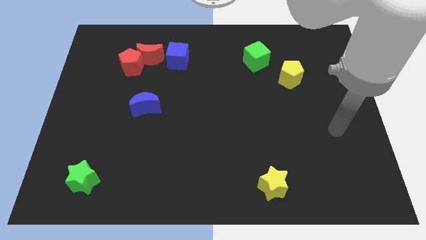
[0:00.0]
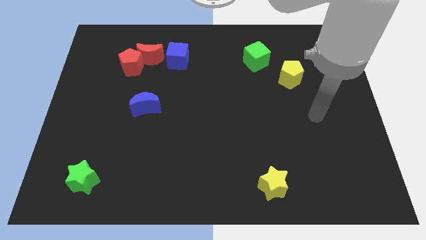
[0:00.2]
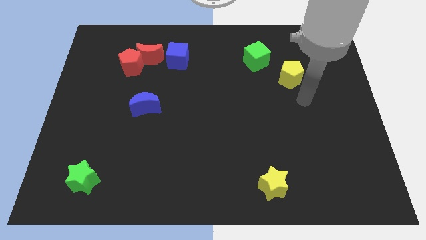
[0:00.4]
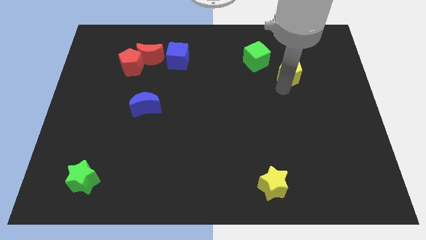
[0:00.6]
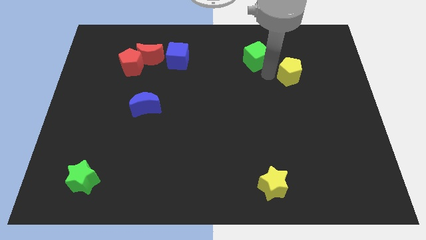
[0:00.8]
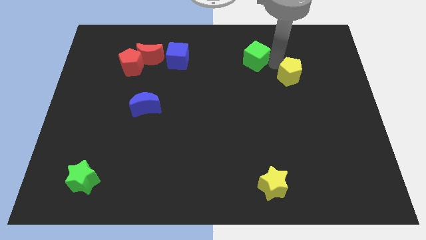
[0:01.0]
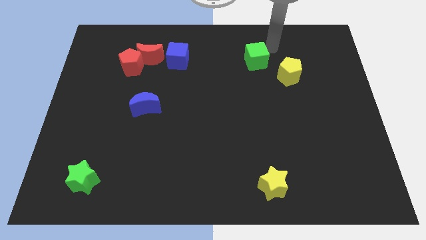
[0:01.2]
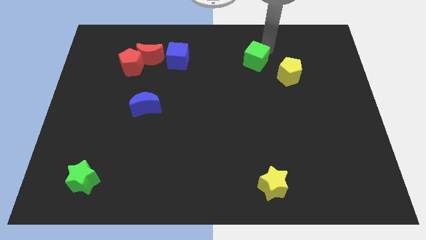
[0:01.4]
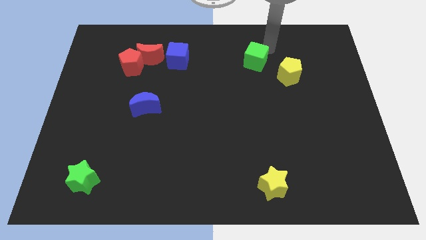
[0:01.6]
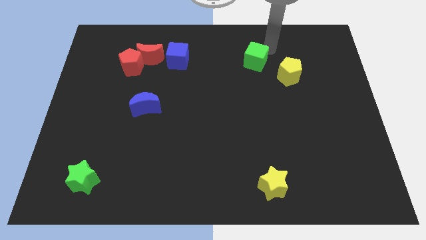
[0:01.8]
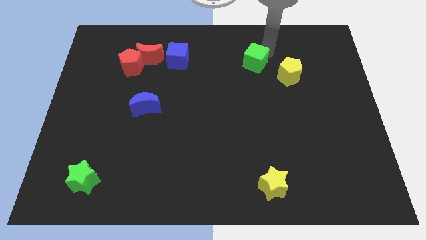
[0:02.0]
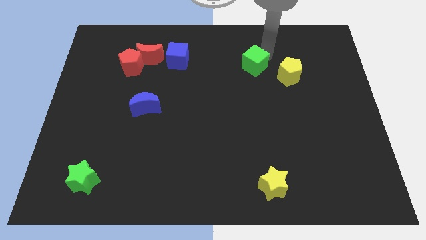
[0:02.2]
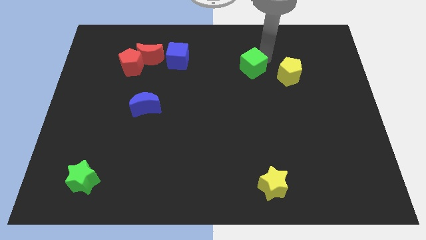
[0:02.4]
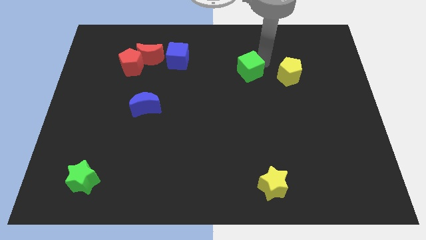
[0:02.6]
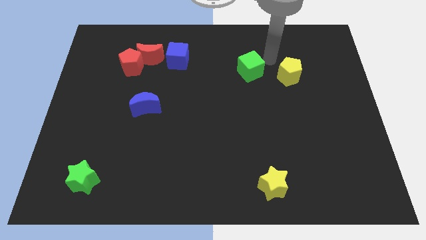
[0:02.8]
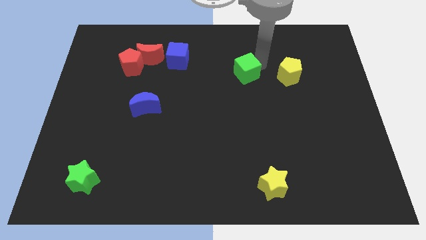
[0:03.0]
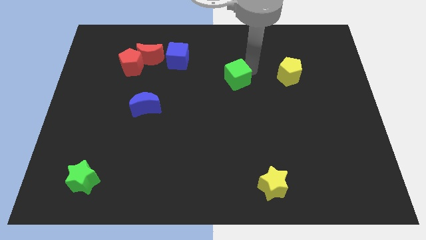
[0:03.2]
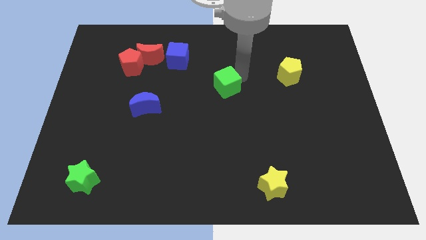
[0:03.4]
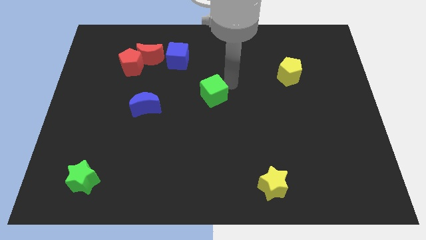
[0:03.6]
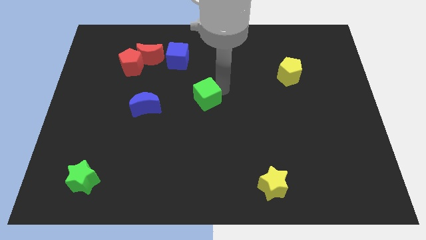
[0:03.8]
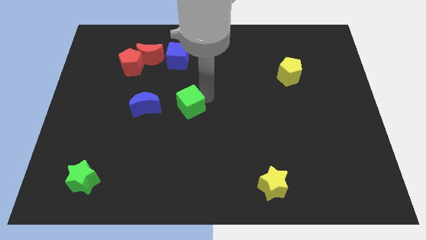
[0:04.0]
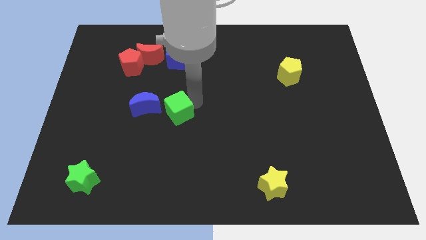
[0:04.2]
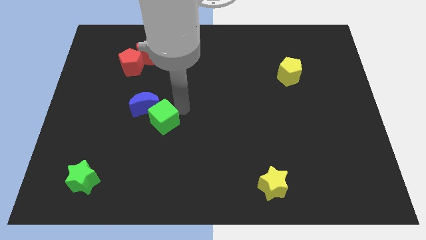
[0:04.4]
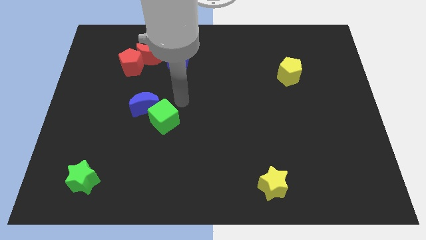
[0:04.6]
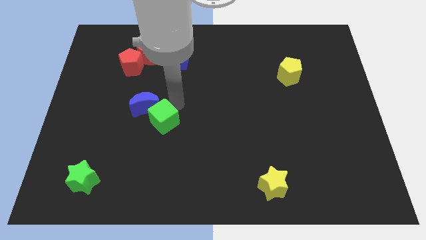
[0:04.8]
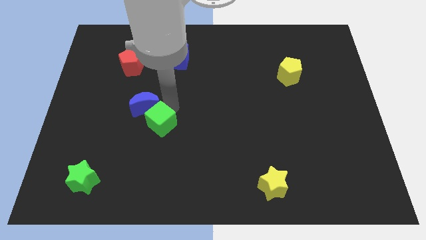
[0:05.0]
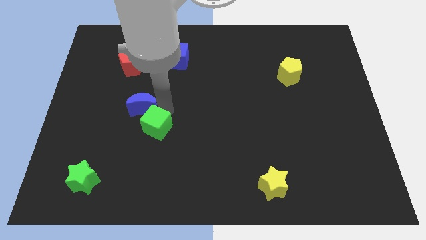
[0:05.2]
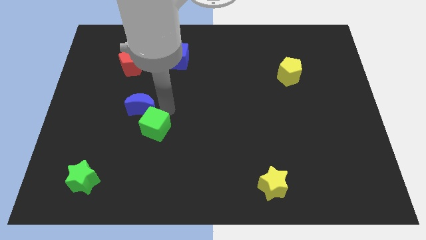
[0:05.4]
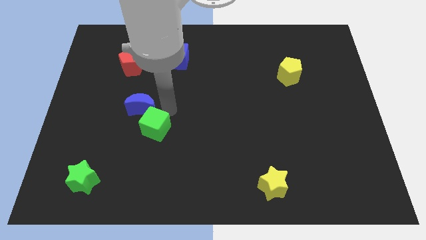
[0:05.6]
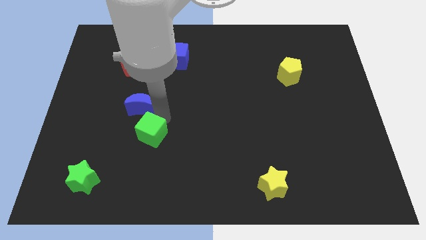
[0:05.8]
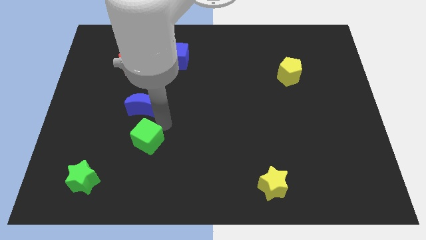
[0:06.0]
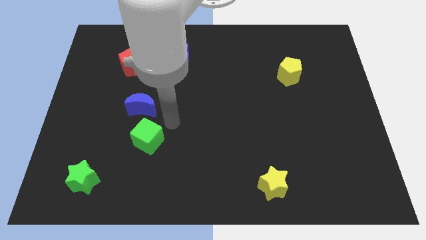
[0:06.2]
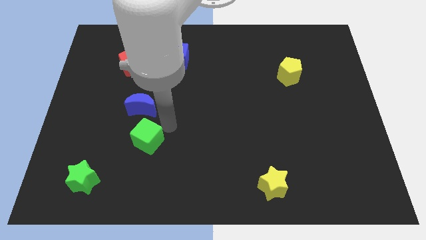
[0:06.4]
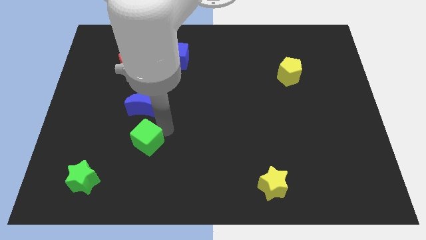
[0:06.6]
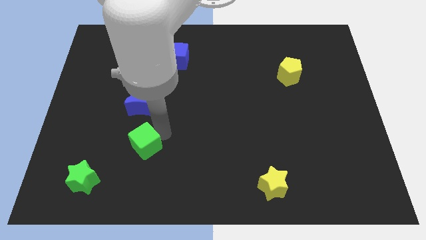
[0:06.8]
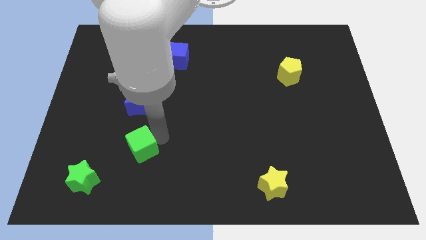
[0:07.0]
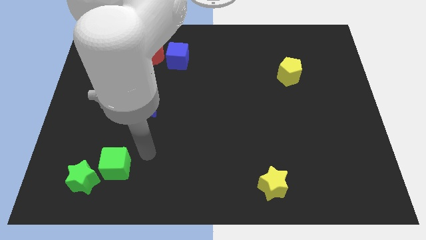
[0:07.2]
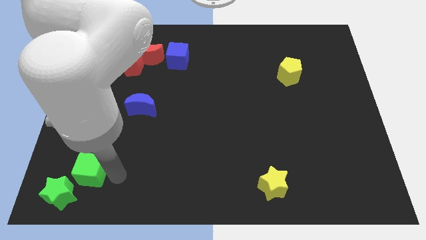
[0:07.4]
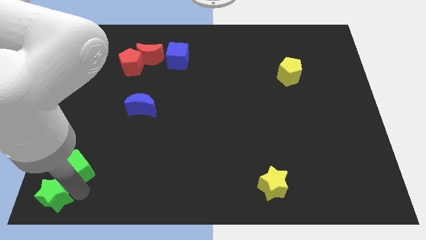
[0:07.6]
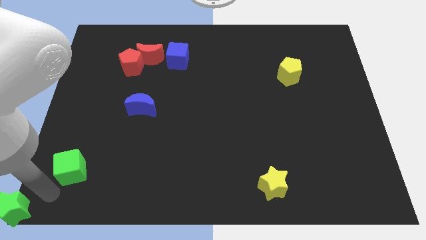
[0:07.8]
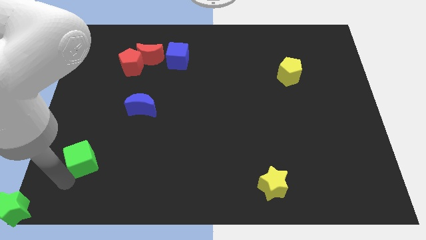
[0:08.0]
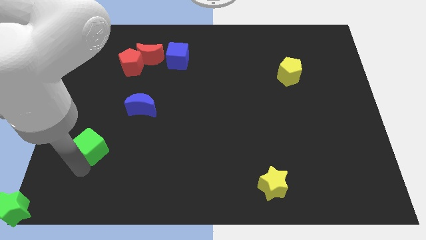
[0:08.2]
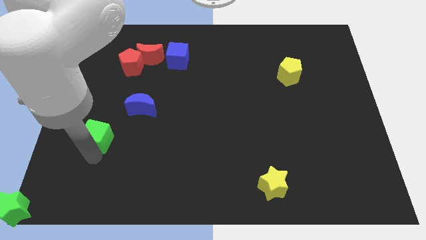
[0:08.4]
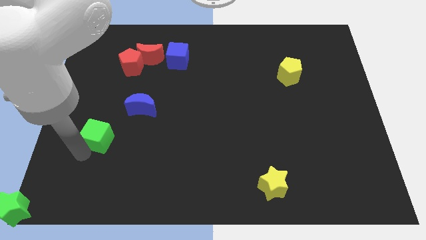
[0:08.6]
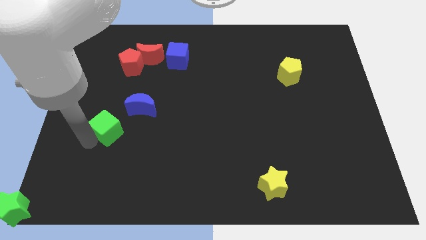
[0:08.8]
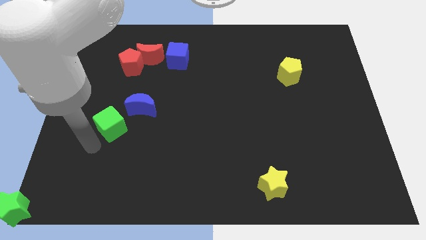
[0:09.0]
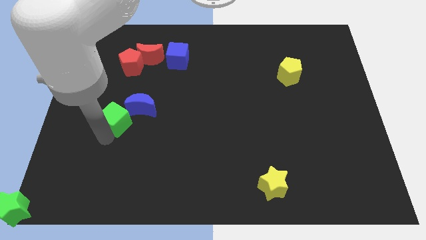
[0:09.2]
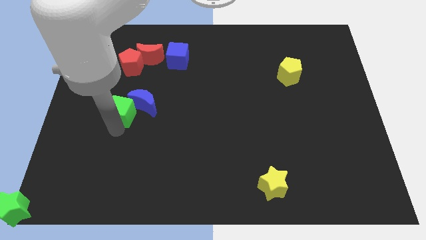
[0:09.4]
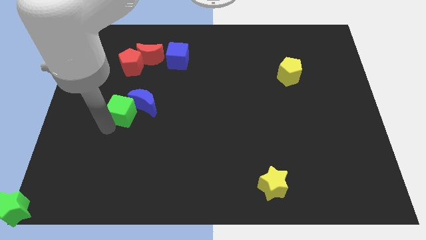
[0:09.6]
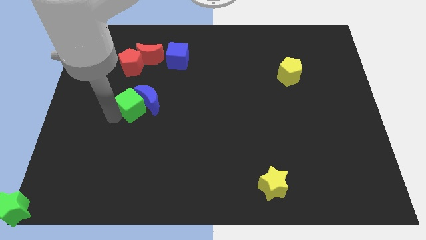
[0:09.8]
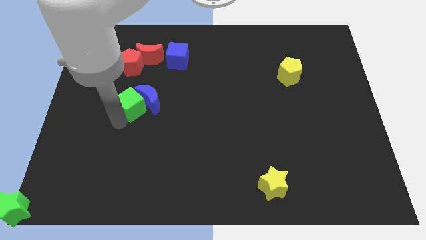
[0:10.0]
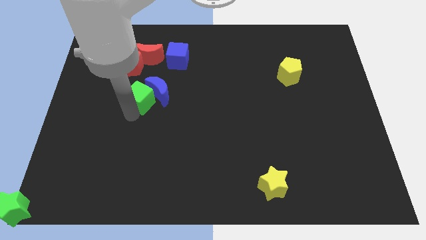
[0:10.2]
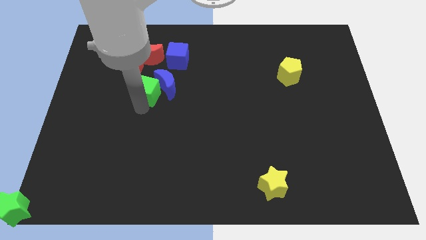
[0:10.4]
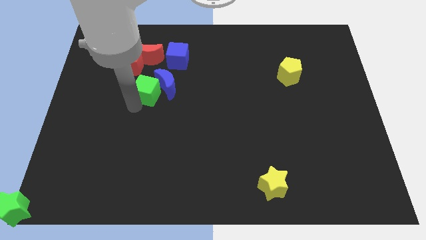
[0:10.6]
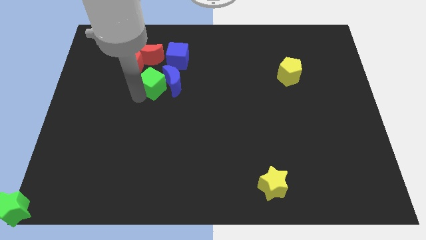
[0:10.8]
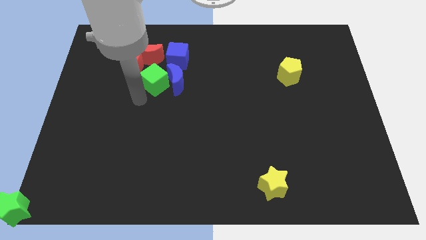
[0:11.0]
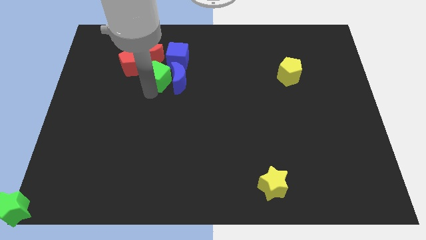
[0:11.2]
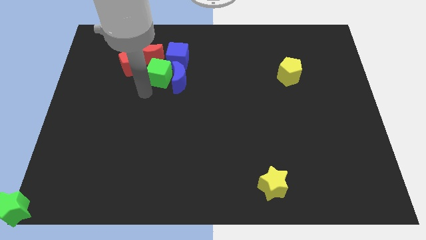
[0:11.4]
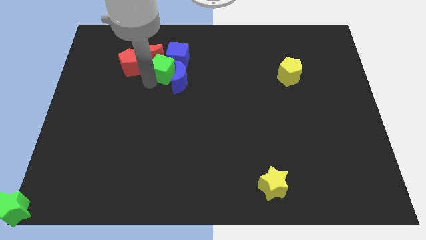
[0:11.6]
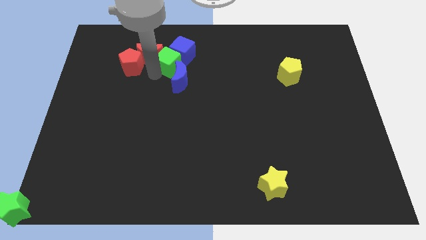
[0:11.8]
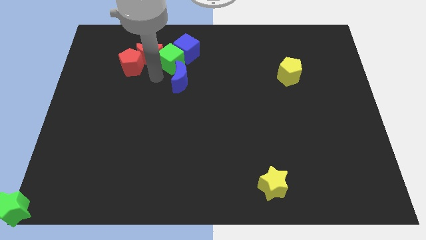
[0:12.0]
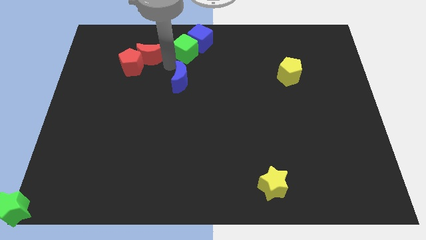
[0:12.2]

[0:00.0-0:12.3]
push the green cube to the towards your base

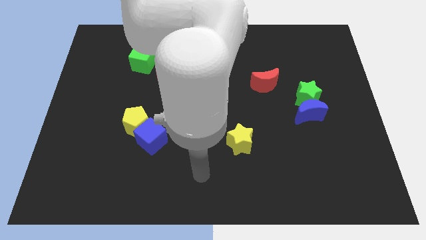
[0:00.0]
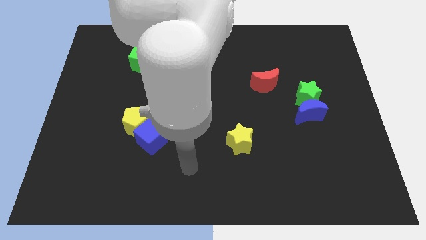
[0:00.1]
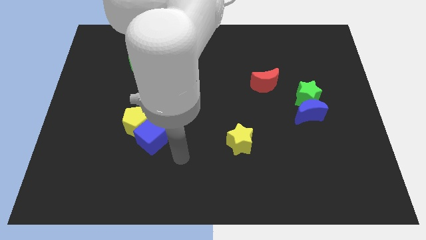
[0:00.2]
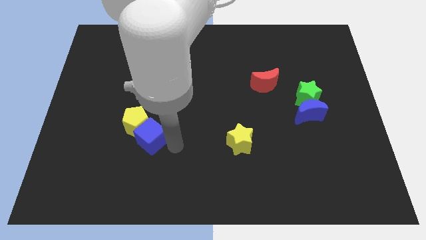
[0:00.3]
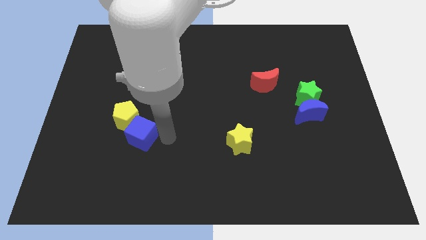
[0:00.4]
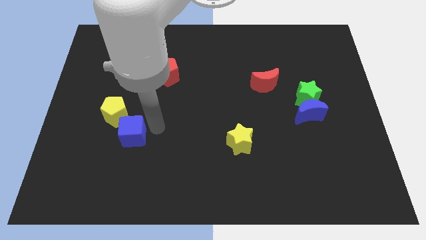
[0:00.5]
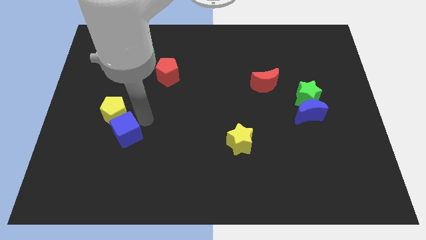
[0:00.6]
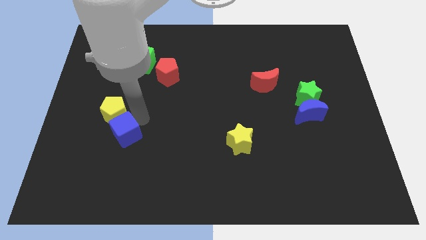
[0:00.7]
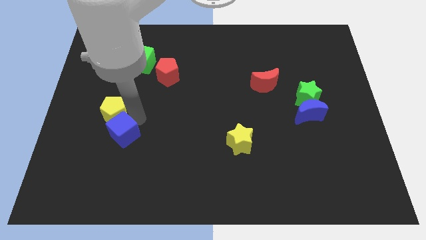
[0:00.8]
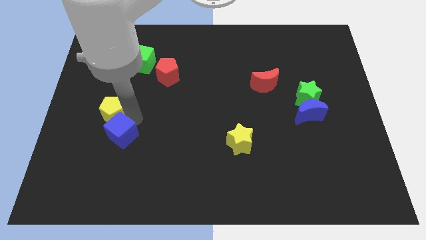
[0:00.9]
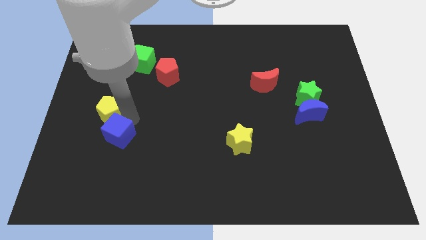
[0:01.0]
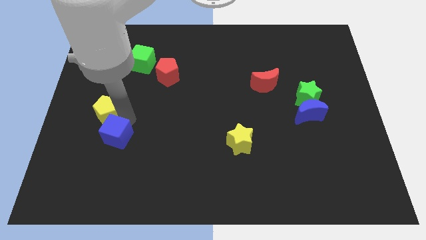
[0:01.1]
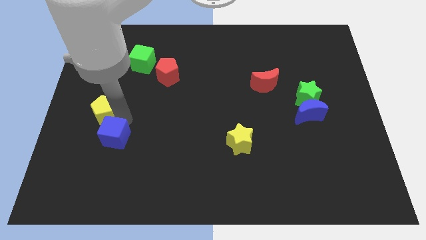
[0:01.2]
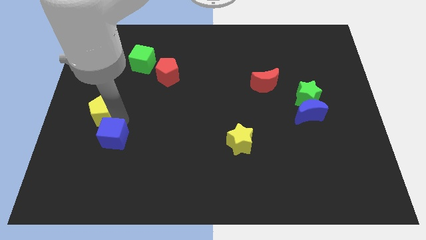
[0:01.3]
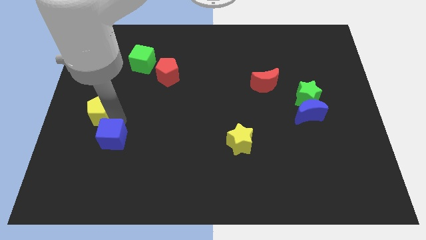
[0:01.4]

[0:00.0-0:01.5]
put the yellow pentagon to the left side

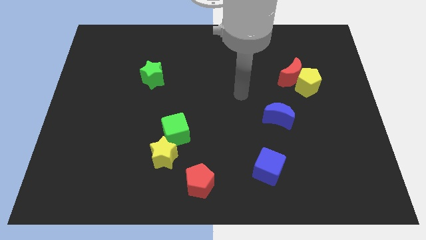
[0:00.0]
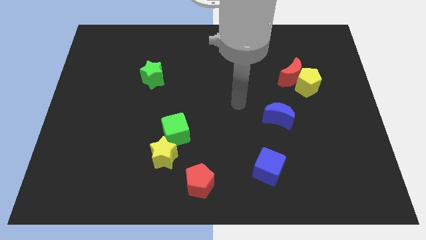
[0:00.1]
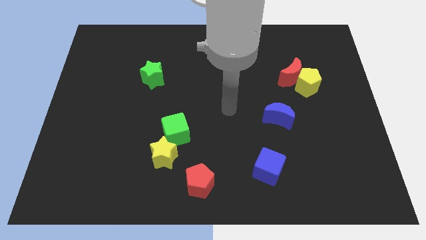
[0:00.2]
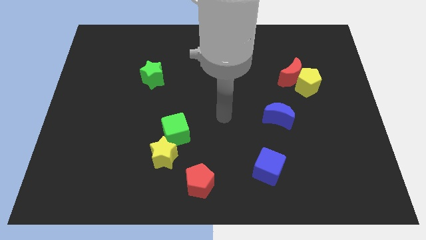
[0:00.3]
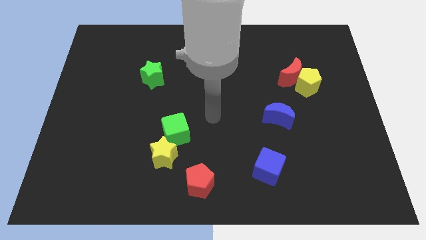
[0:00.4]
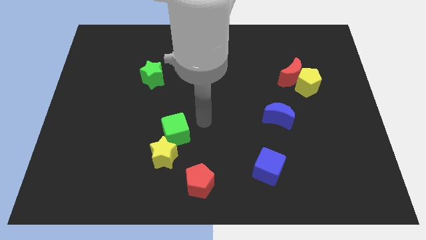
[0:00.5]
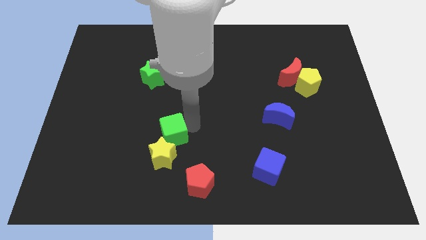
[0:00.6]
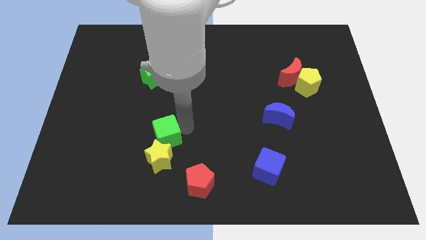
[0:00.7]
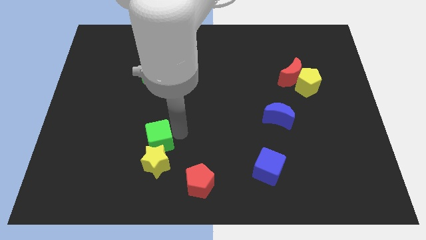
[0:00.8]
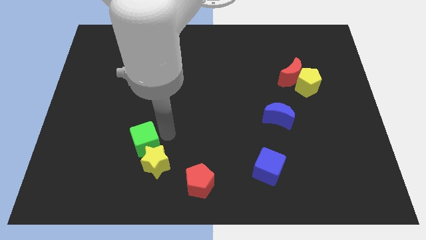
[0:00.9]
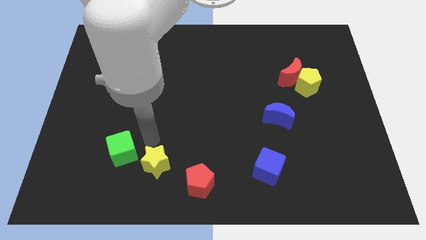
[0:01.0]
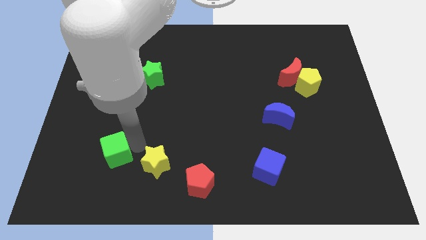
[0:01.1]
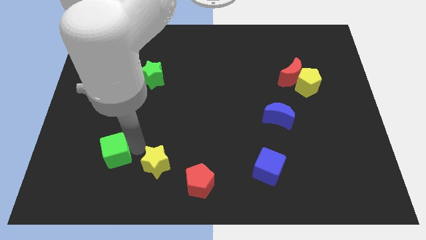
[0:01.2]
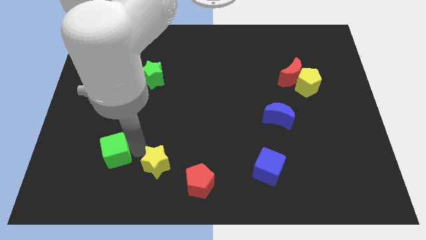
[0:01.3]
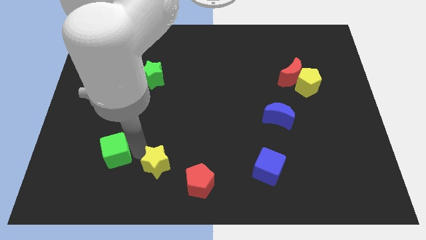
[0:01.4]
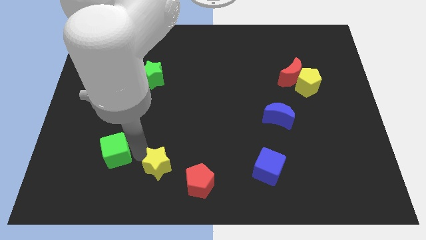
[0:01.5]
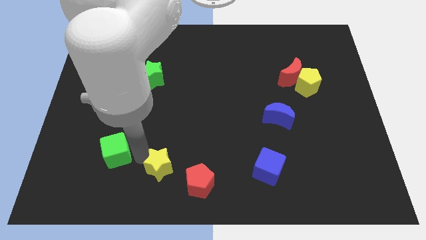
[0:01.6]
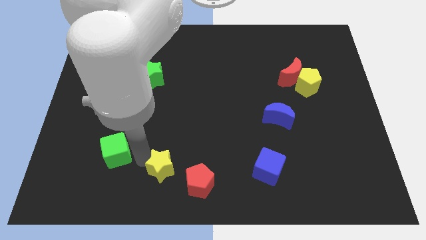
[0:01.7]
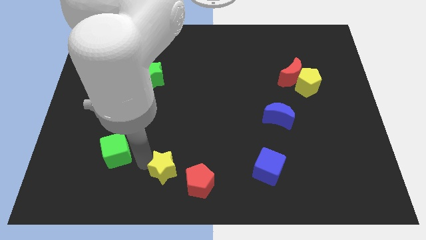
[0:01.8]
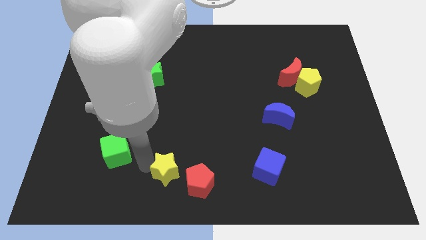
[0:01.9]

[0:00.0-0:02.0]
push the yellow star to the bottom side
